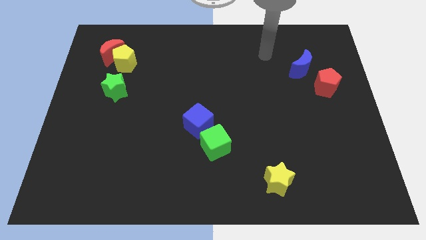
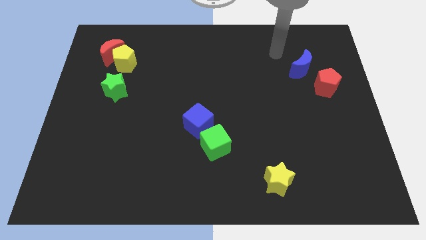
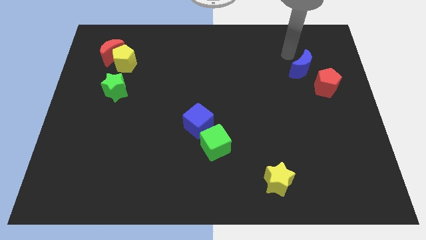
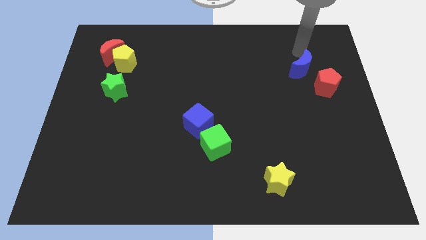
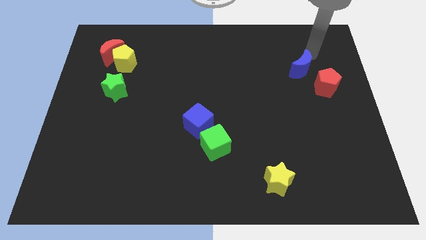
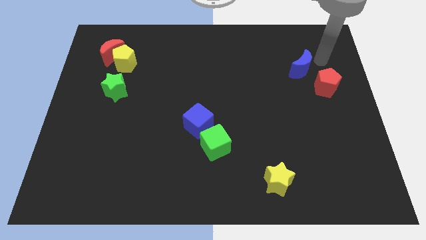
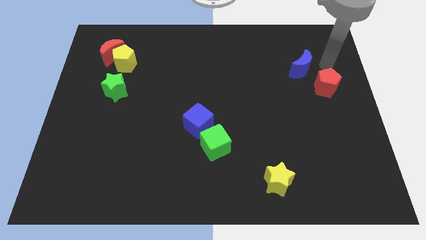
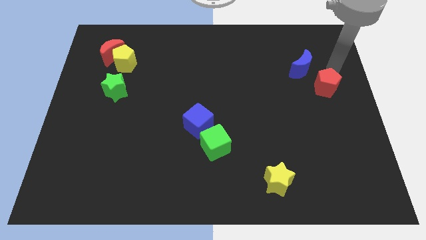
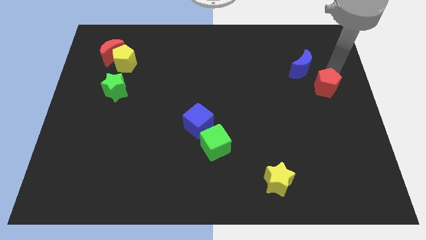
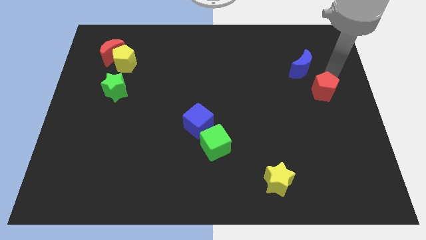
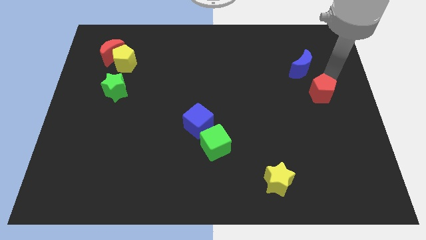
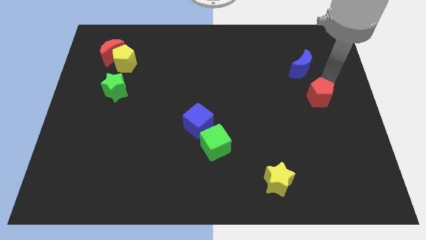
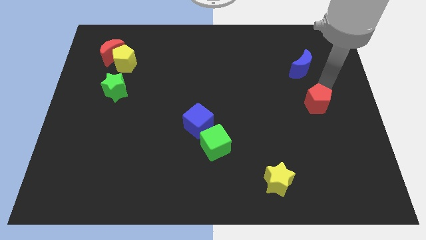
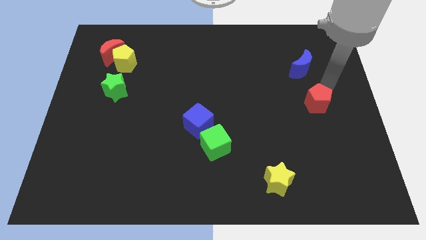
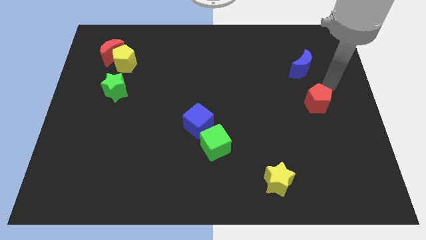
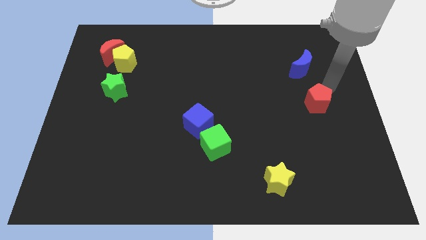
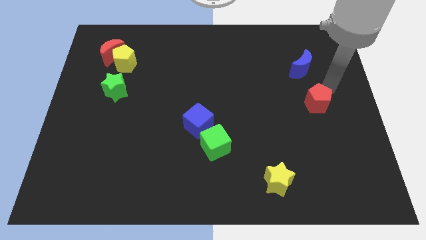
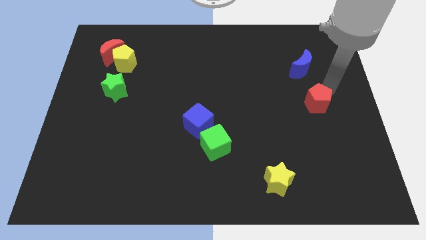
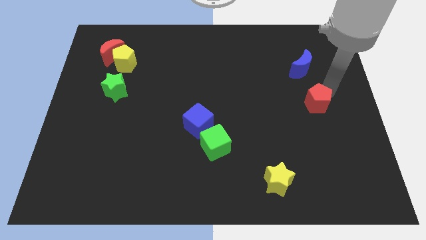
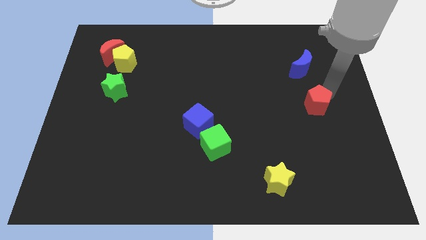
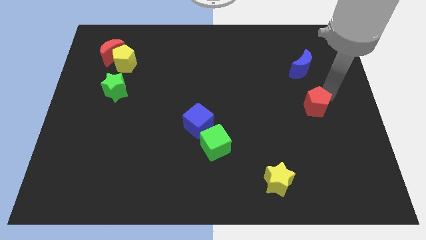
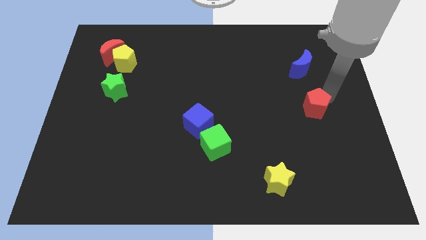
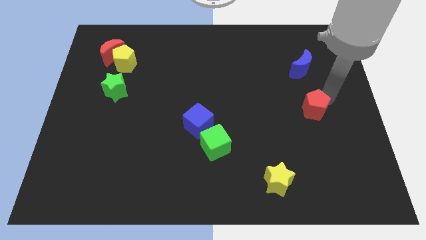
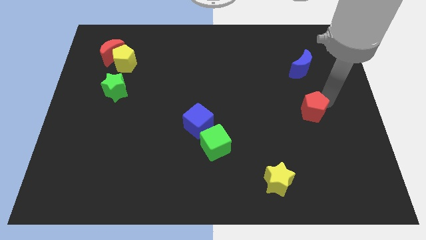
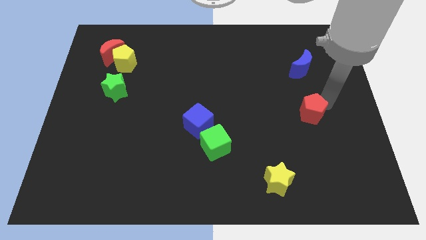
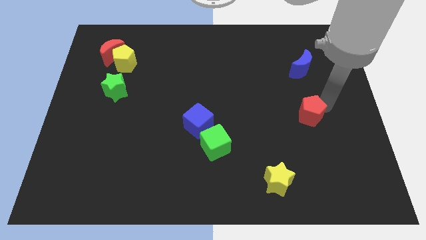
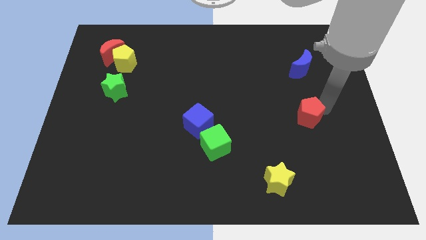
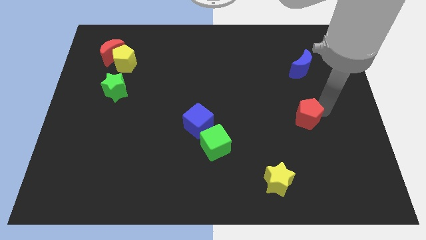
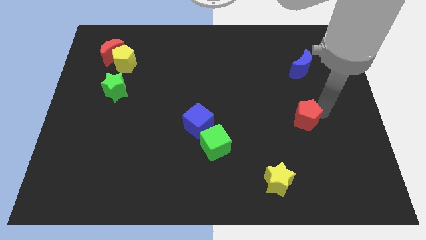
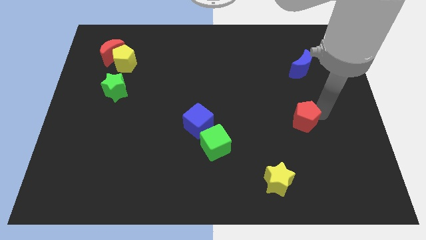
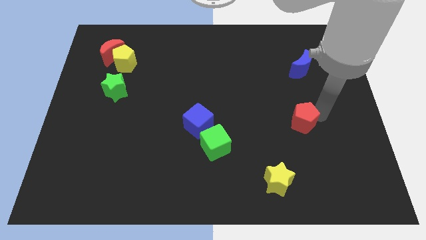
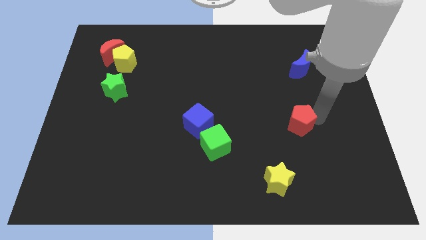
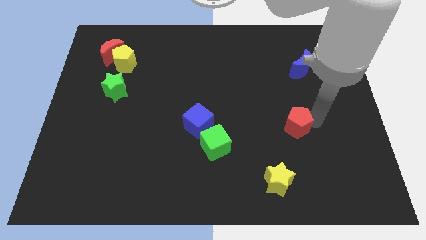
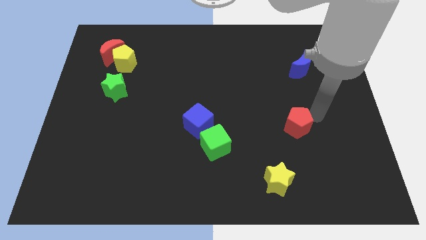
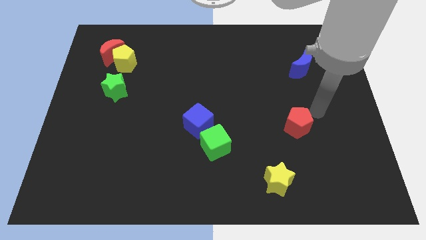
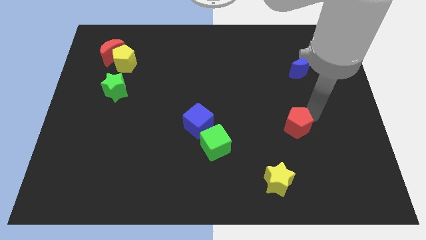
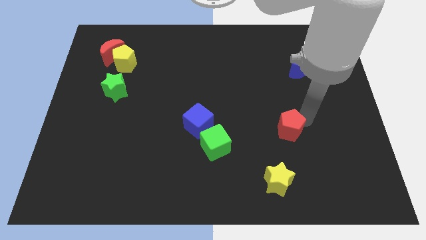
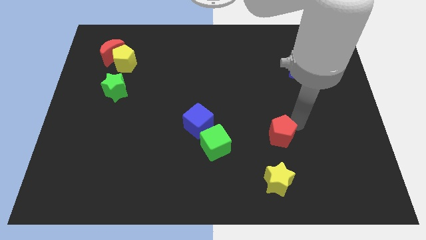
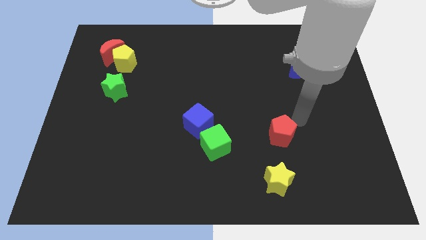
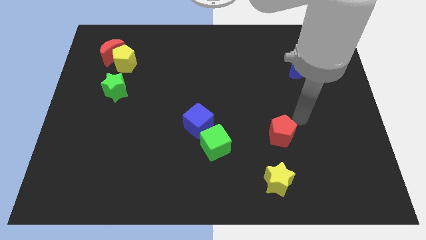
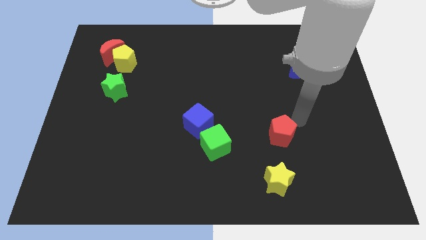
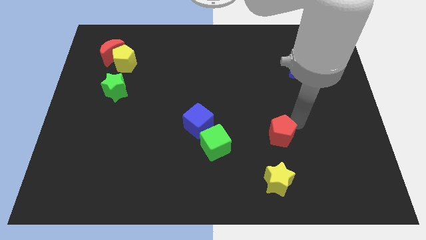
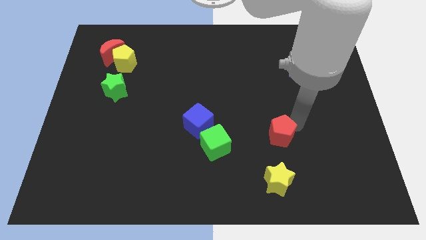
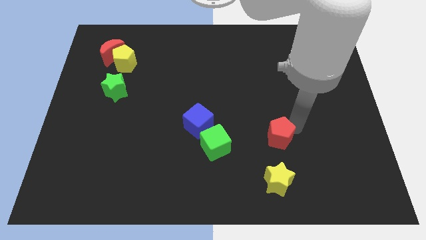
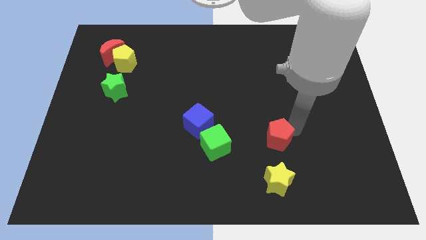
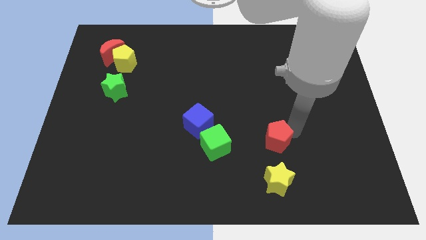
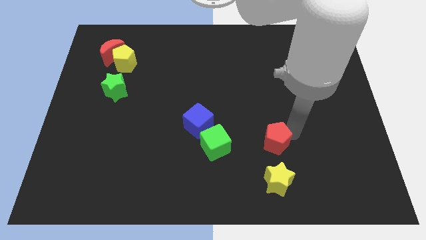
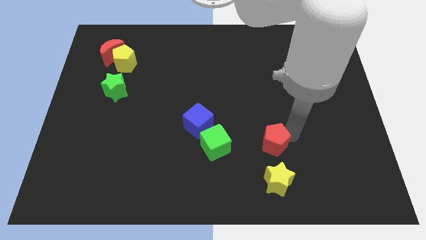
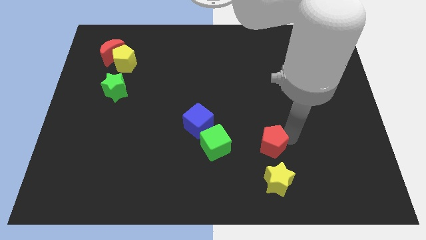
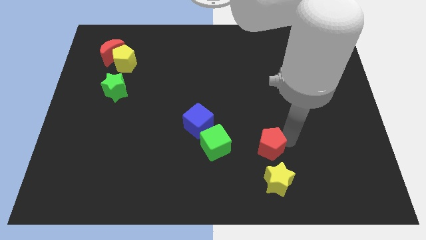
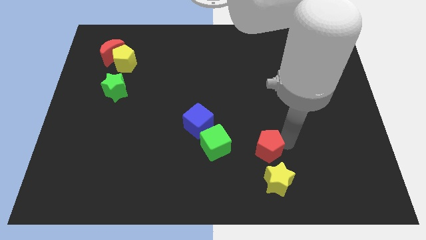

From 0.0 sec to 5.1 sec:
slide the red pentagon to the top left of the yellow star

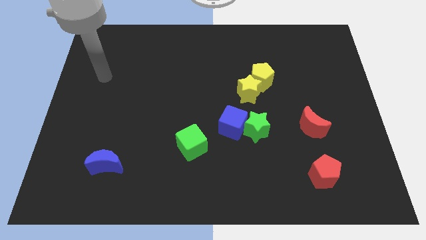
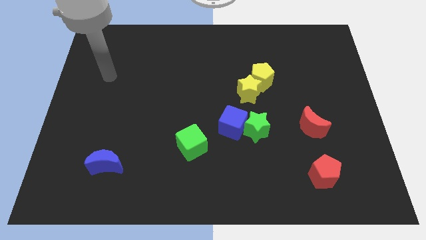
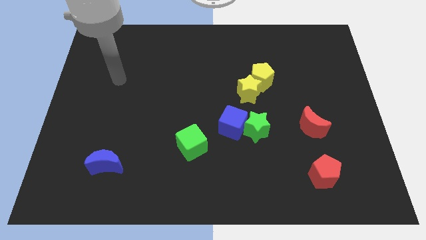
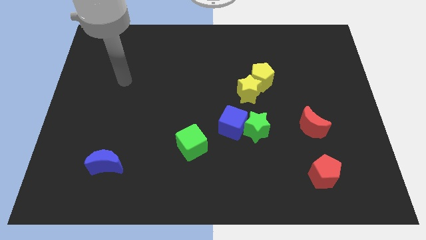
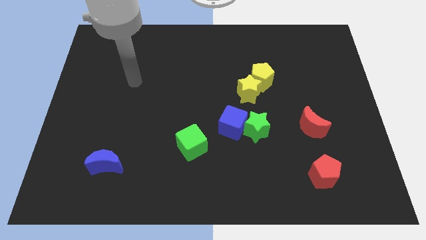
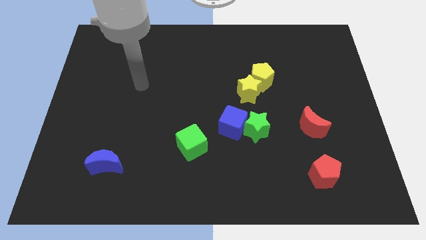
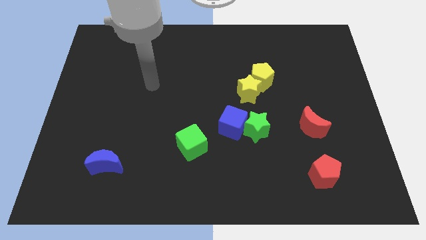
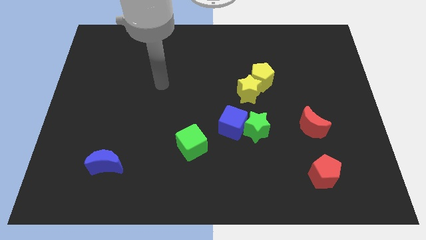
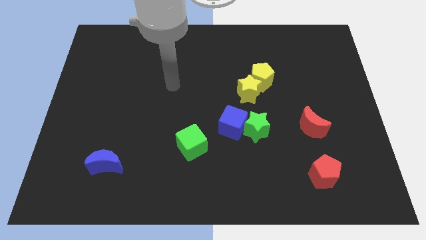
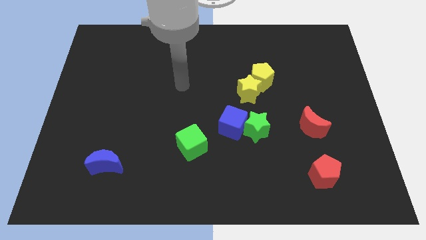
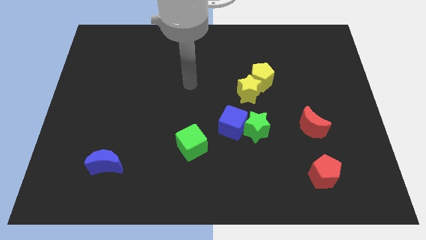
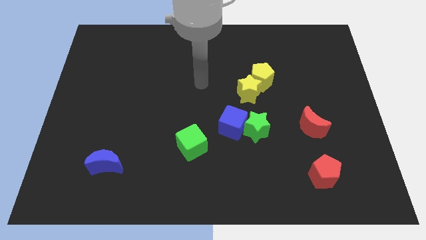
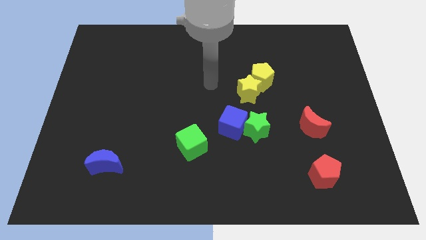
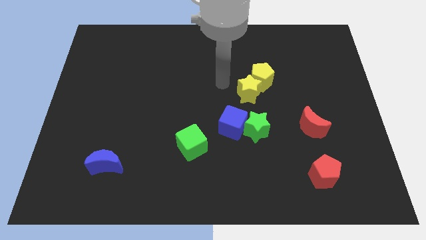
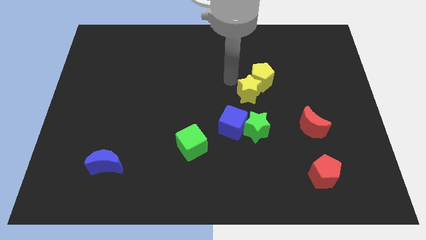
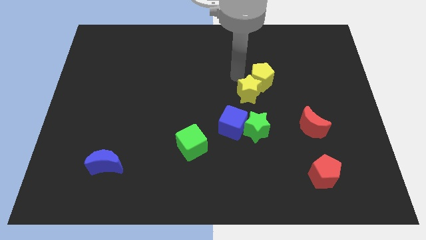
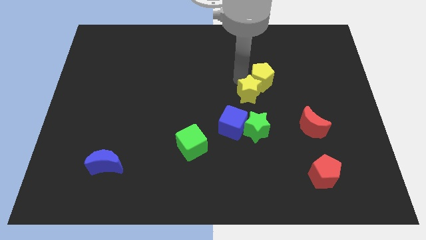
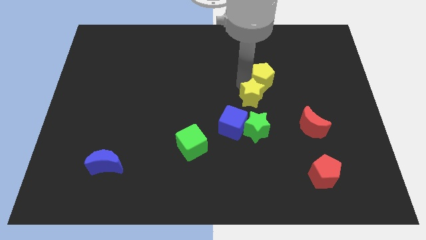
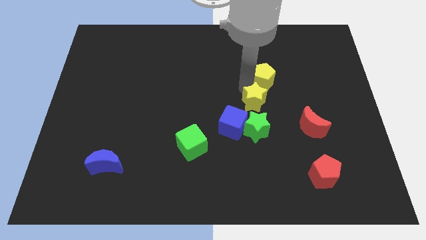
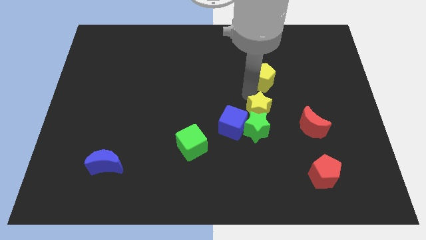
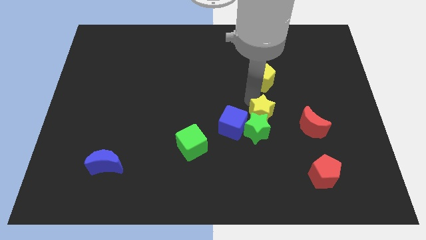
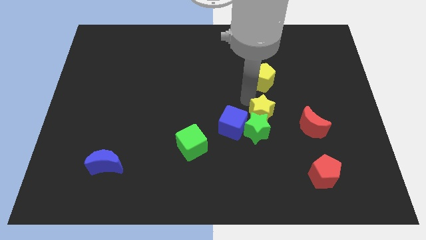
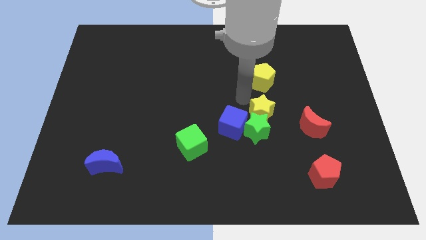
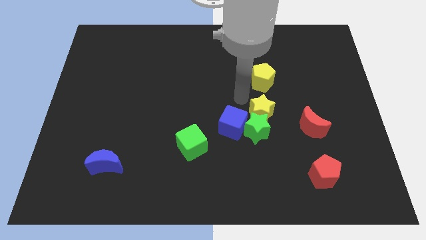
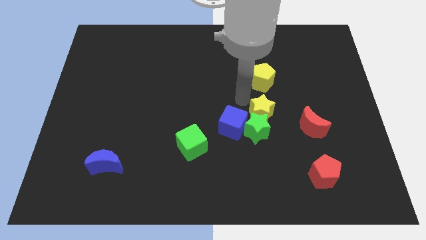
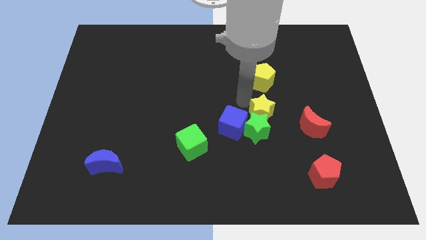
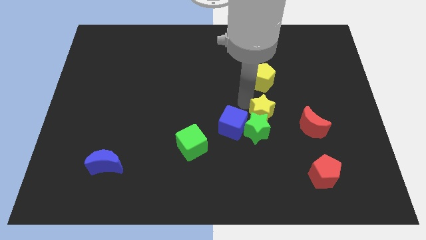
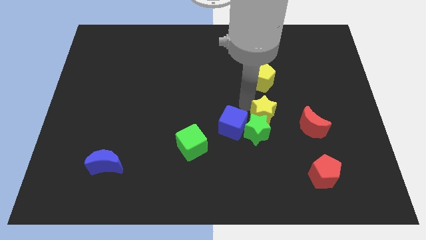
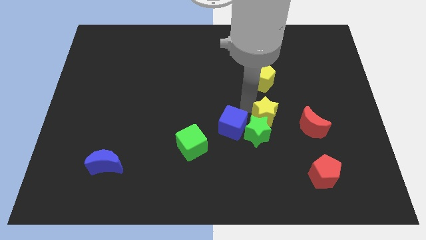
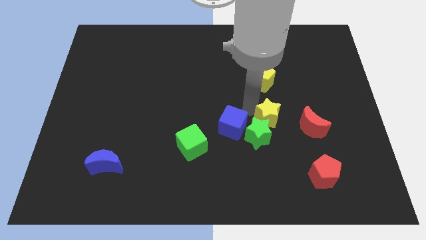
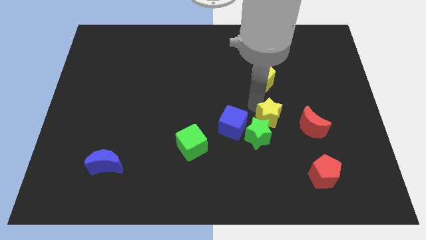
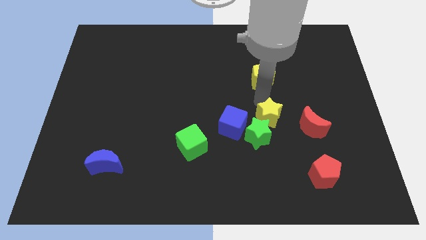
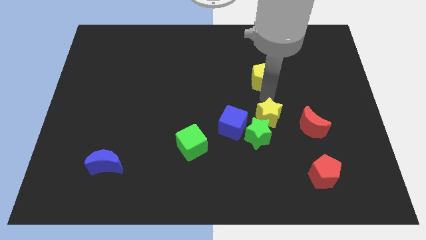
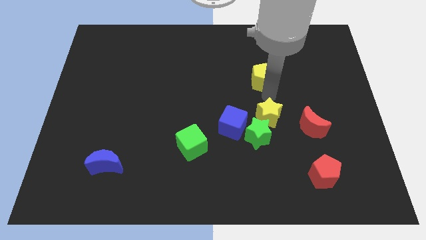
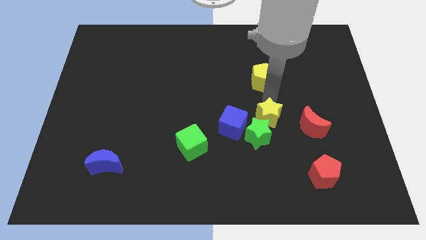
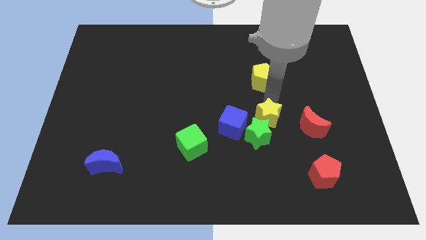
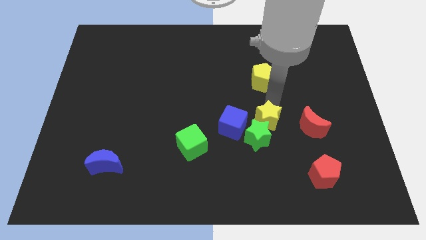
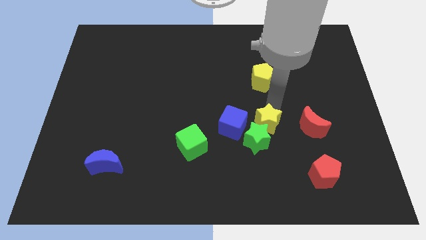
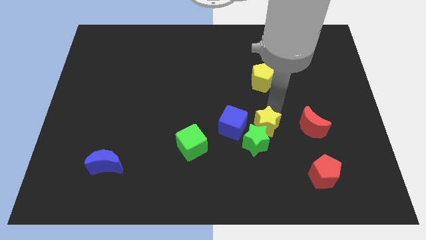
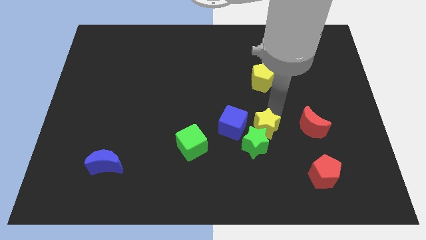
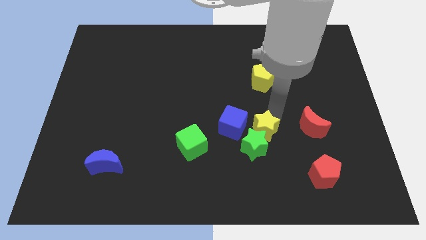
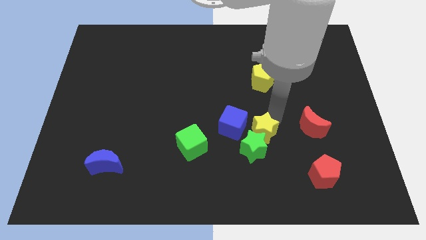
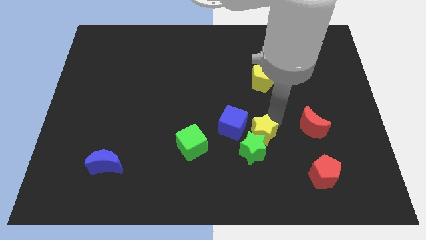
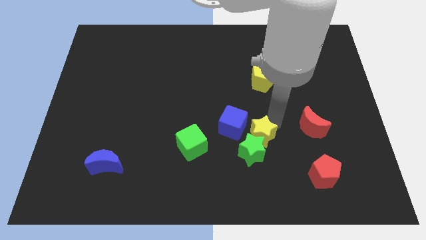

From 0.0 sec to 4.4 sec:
slide the yellow star just right of the green cube
